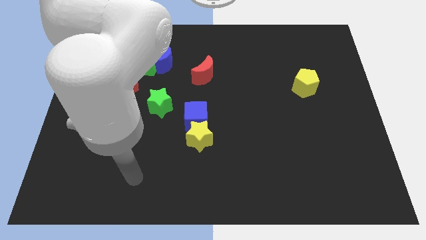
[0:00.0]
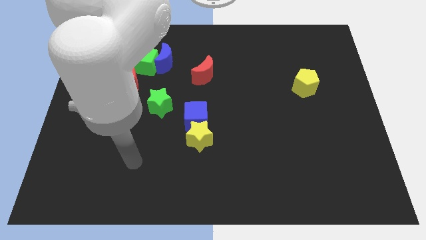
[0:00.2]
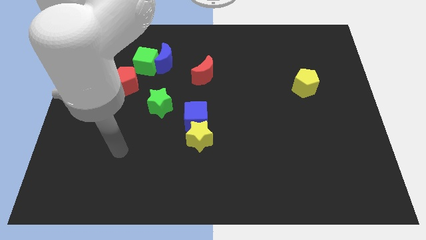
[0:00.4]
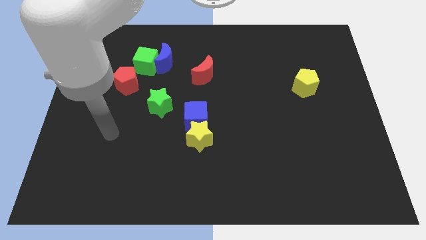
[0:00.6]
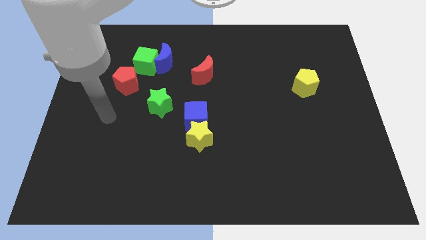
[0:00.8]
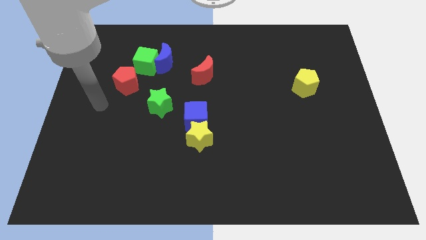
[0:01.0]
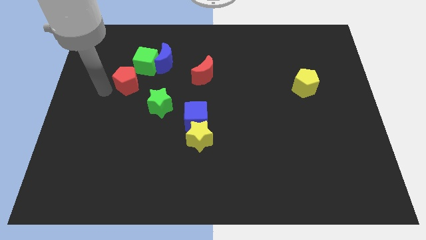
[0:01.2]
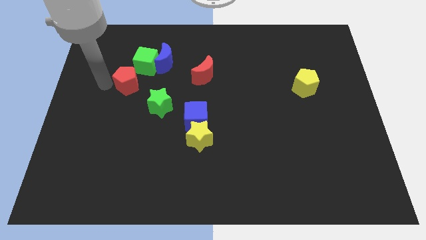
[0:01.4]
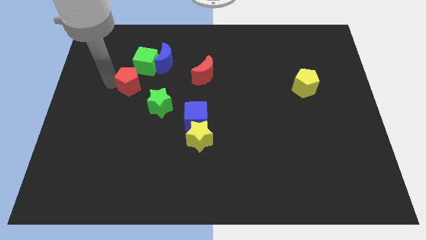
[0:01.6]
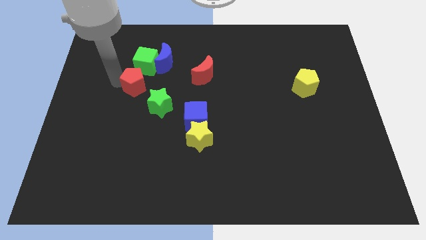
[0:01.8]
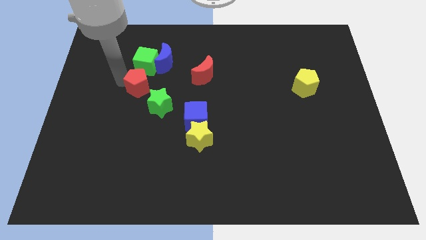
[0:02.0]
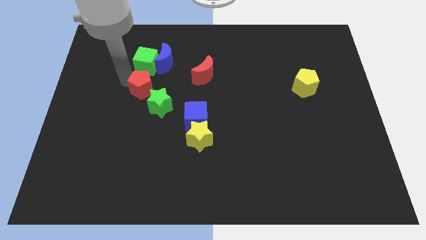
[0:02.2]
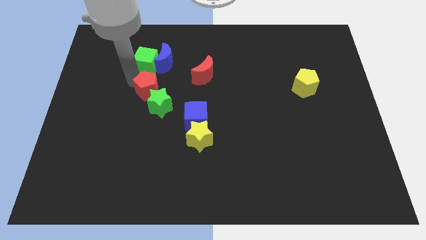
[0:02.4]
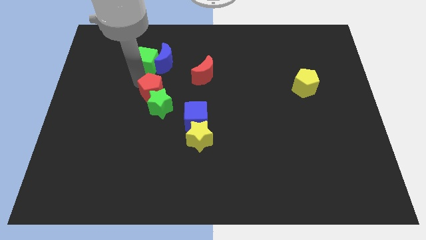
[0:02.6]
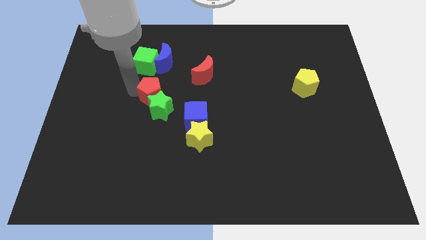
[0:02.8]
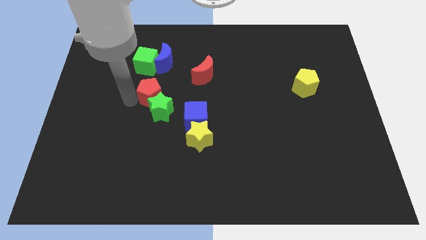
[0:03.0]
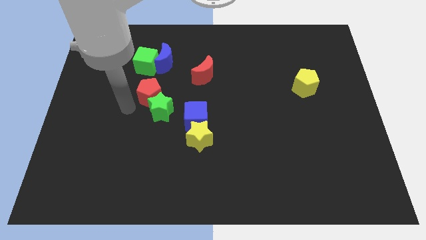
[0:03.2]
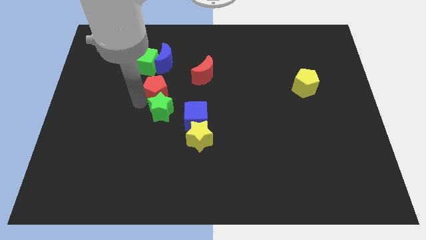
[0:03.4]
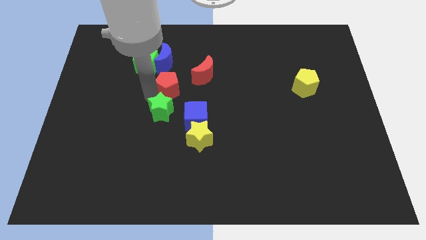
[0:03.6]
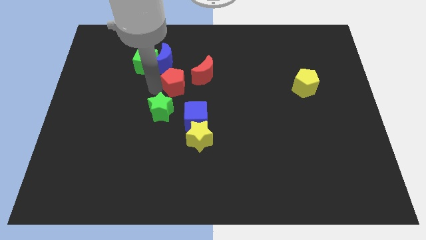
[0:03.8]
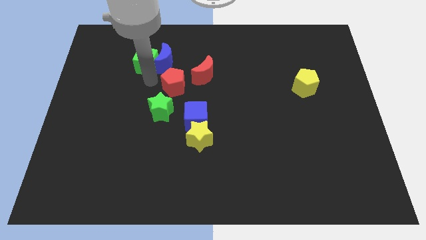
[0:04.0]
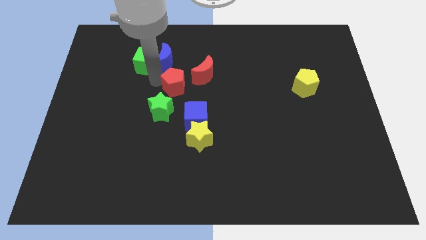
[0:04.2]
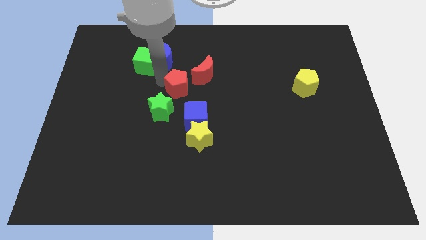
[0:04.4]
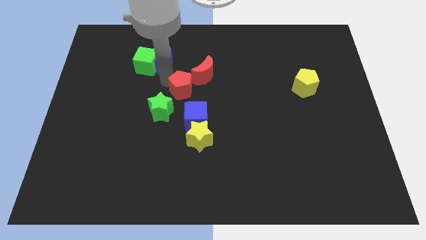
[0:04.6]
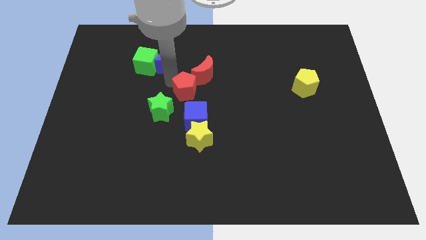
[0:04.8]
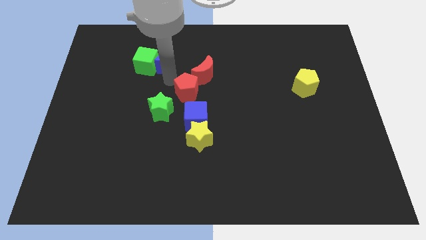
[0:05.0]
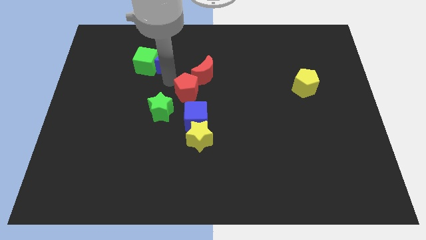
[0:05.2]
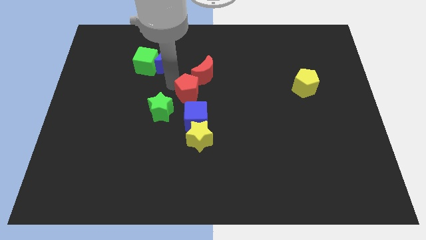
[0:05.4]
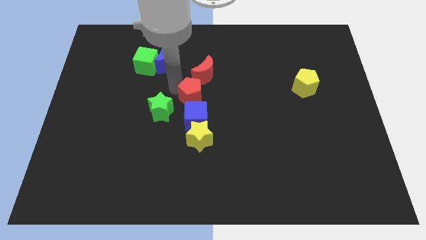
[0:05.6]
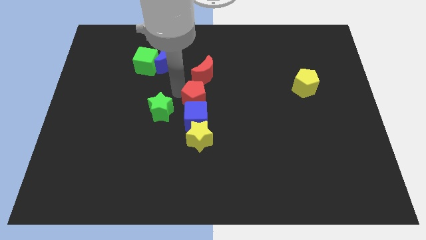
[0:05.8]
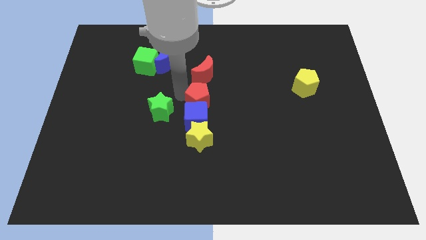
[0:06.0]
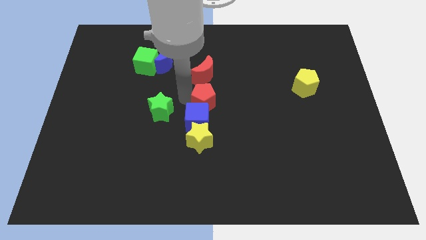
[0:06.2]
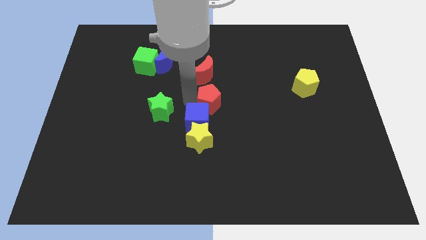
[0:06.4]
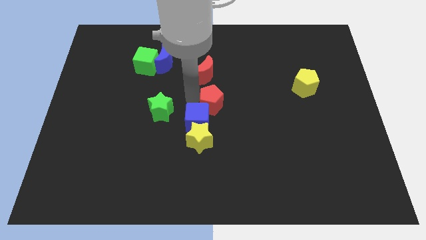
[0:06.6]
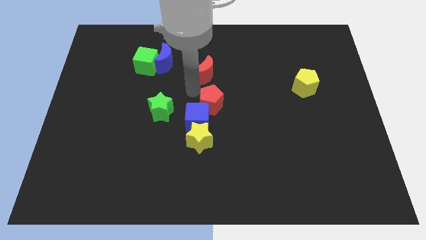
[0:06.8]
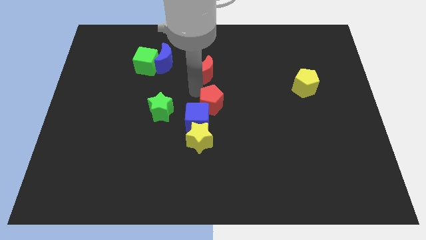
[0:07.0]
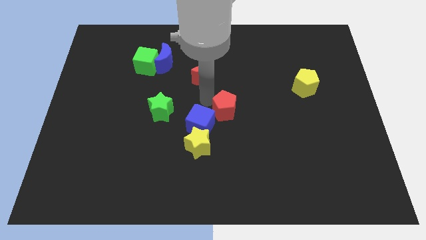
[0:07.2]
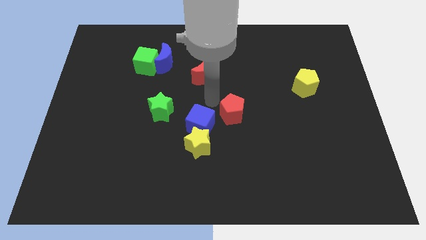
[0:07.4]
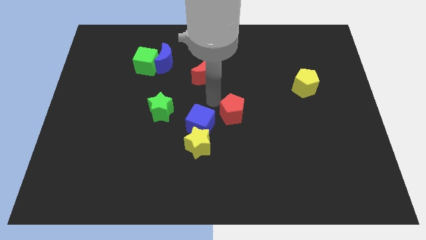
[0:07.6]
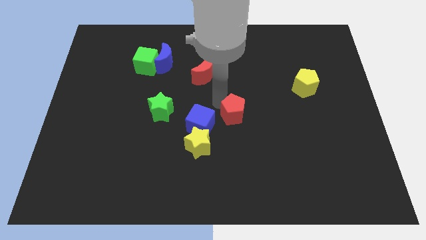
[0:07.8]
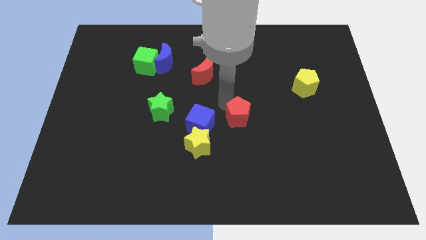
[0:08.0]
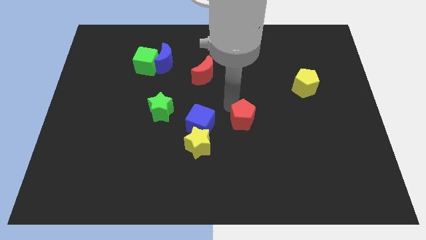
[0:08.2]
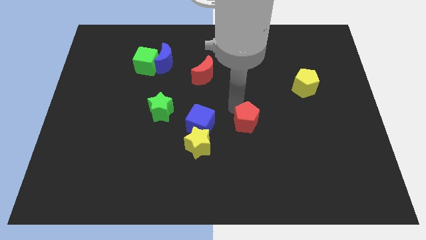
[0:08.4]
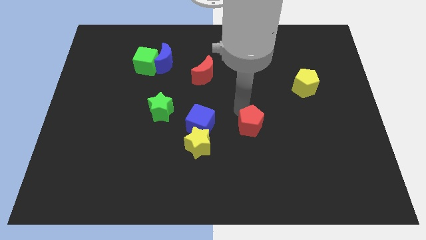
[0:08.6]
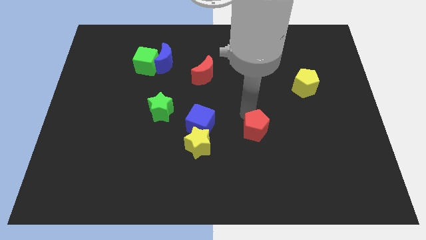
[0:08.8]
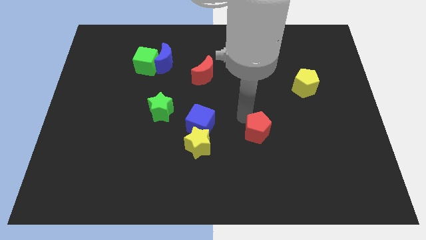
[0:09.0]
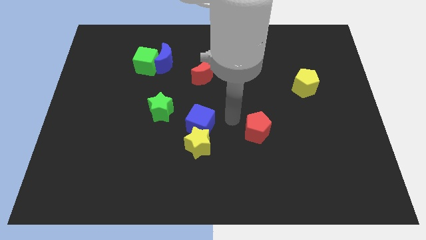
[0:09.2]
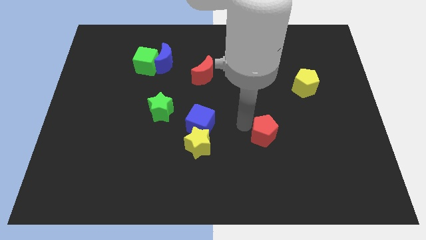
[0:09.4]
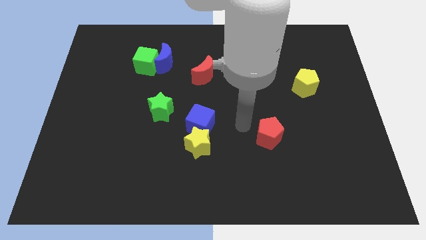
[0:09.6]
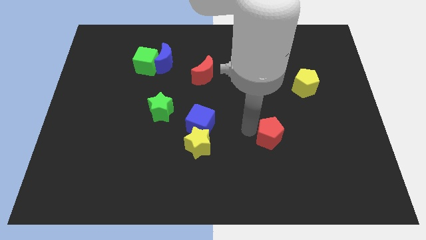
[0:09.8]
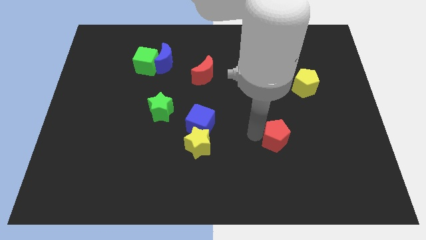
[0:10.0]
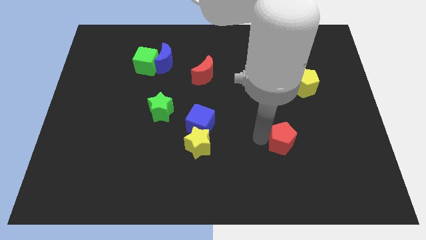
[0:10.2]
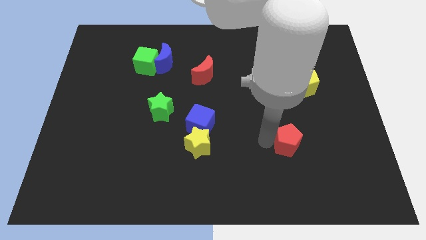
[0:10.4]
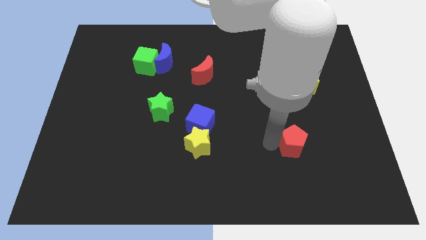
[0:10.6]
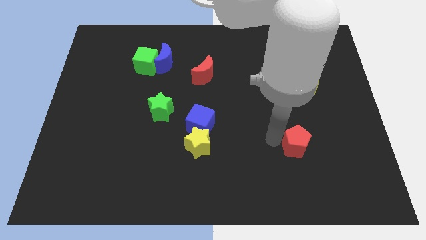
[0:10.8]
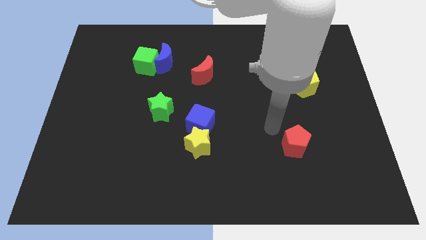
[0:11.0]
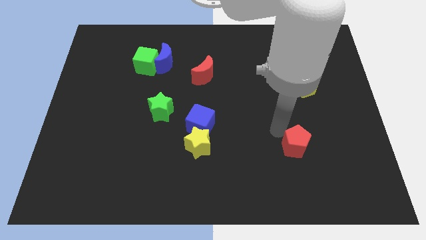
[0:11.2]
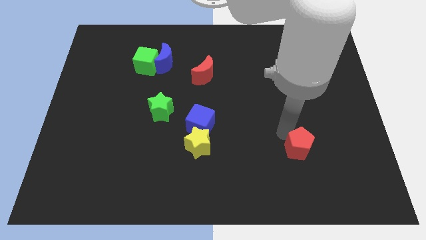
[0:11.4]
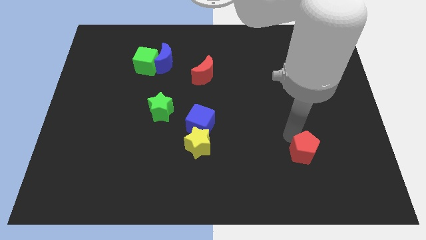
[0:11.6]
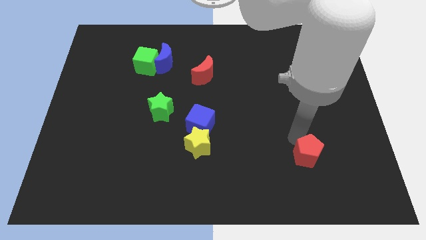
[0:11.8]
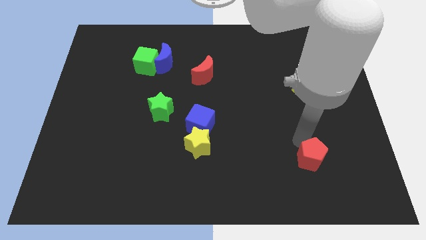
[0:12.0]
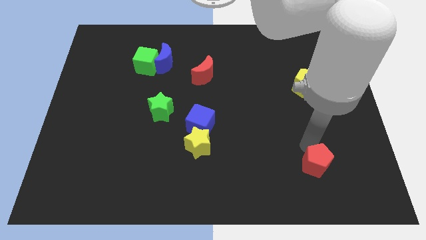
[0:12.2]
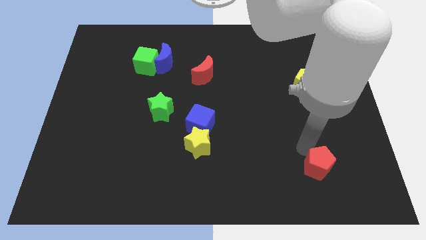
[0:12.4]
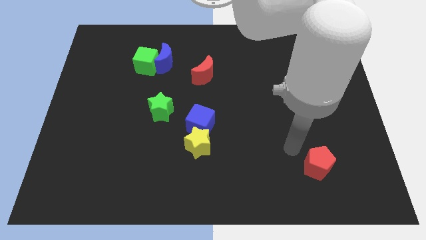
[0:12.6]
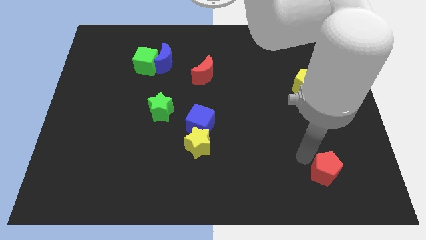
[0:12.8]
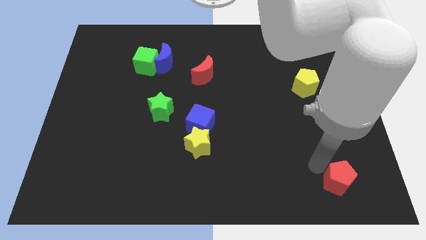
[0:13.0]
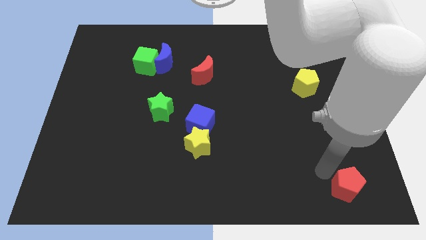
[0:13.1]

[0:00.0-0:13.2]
slide the red pentagon to the bottom right corner

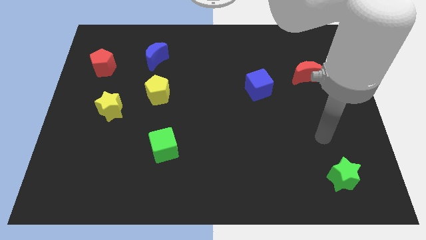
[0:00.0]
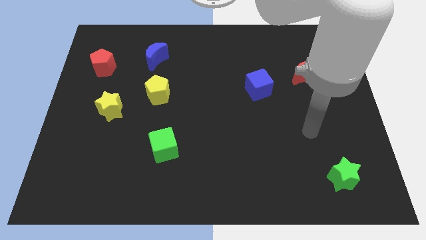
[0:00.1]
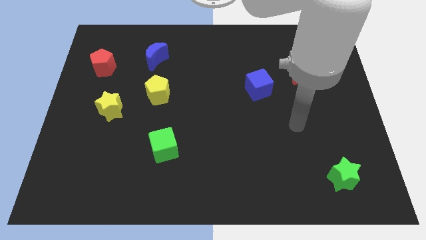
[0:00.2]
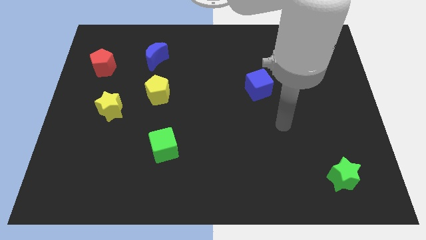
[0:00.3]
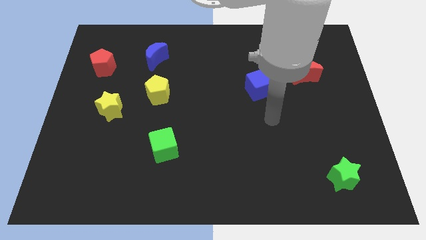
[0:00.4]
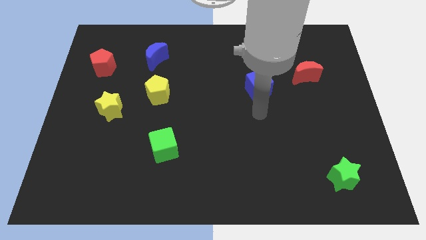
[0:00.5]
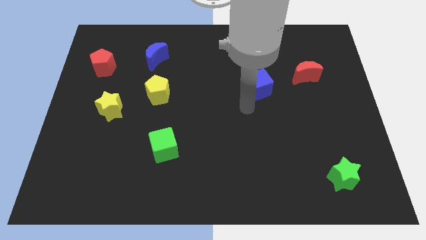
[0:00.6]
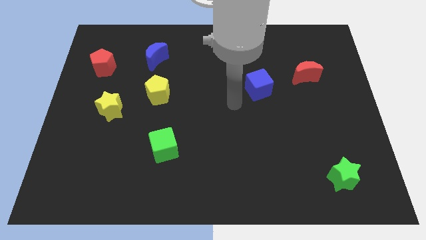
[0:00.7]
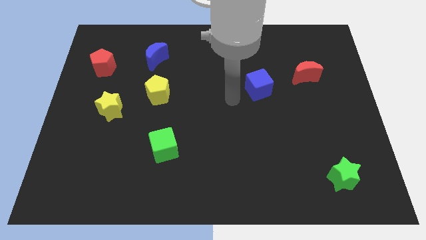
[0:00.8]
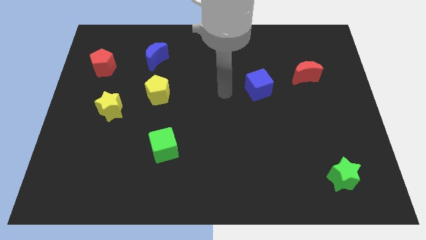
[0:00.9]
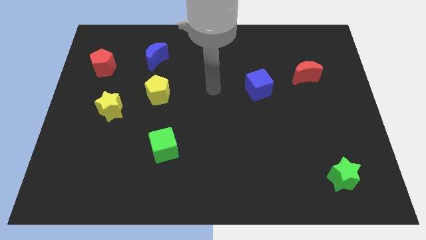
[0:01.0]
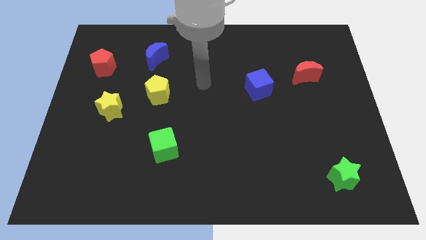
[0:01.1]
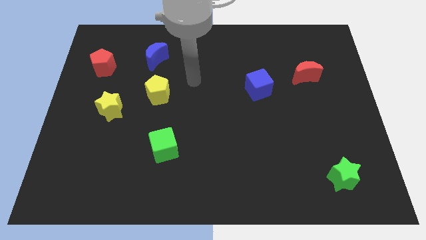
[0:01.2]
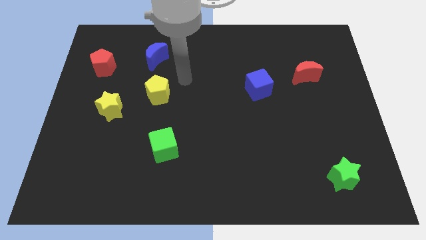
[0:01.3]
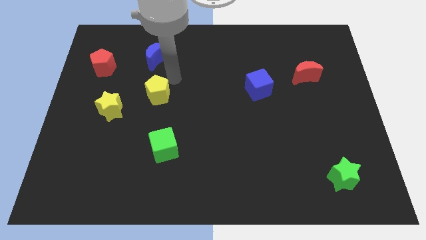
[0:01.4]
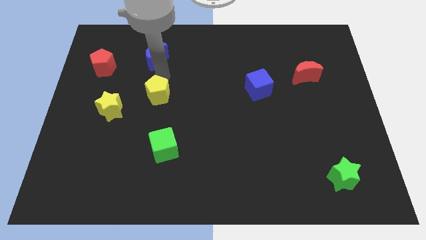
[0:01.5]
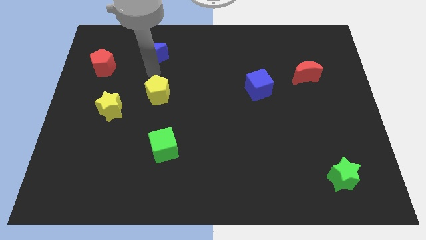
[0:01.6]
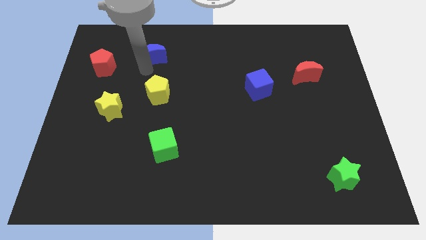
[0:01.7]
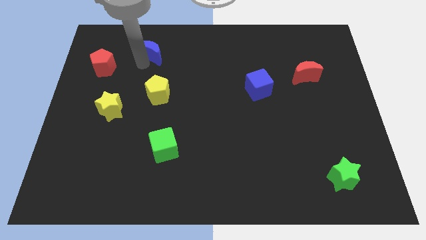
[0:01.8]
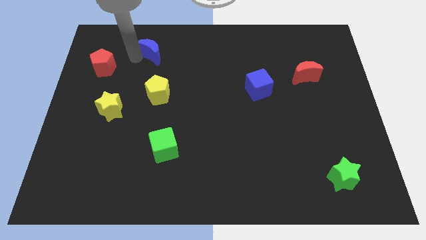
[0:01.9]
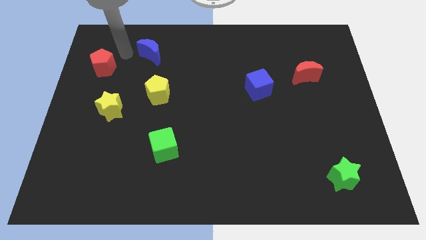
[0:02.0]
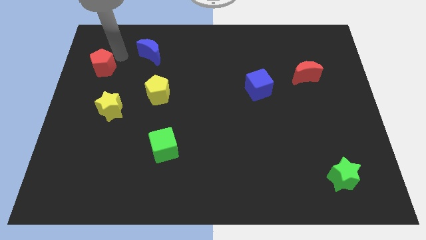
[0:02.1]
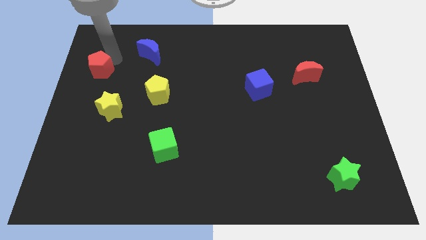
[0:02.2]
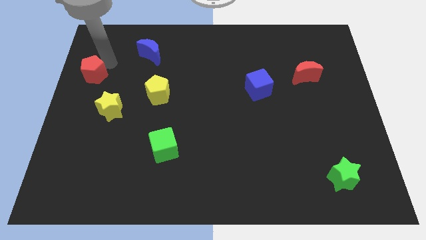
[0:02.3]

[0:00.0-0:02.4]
push the red pentagon to the center left
